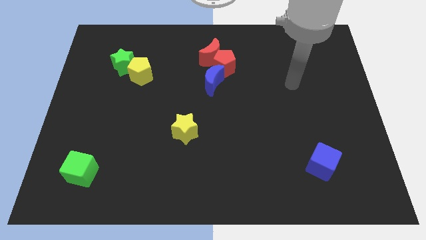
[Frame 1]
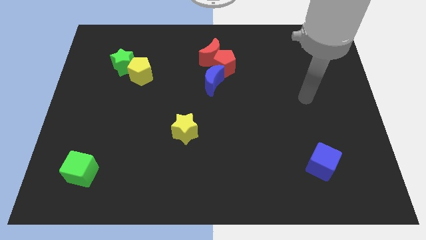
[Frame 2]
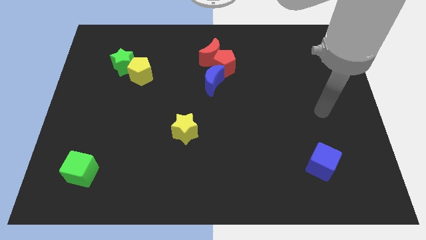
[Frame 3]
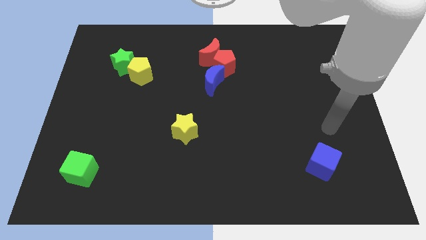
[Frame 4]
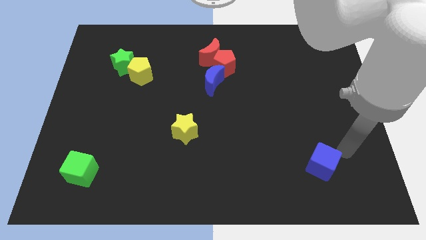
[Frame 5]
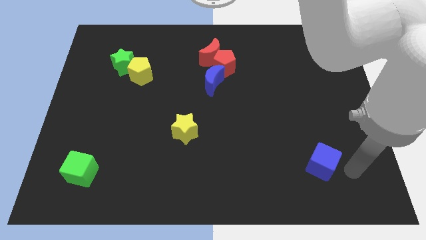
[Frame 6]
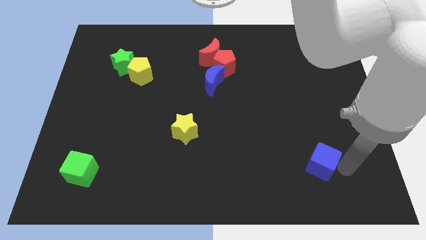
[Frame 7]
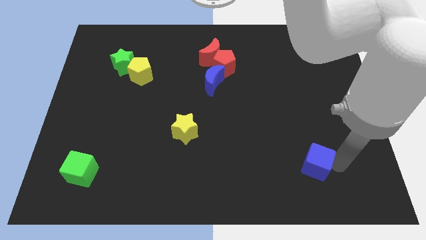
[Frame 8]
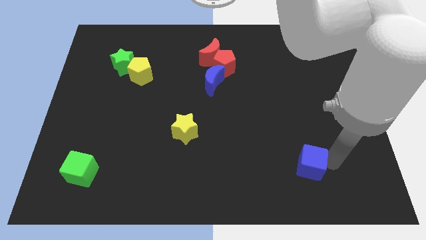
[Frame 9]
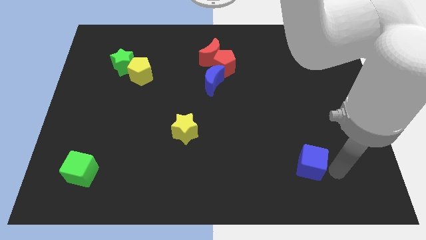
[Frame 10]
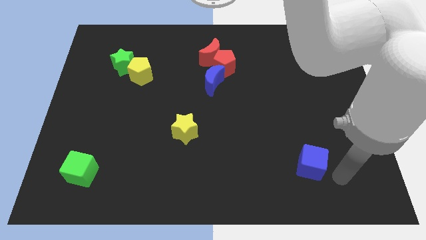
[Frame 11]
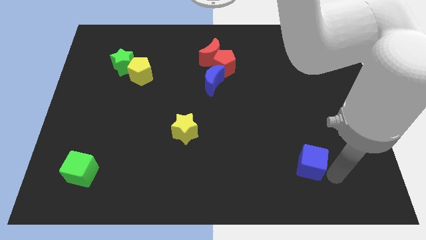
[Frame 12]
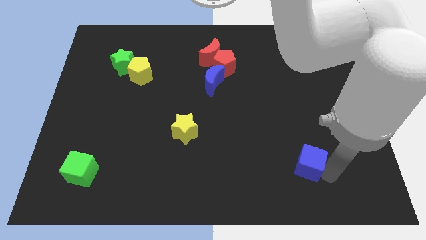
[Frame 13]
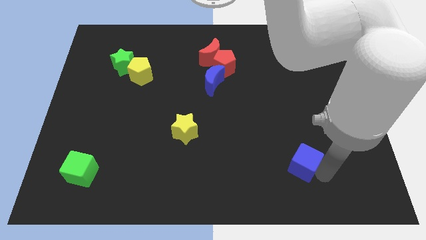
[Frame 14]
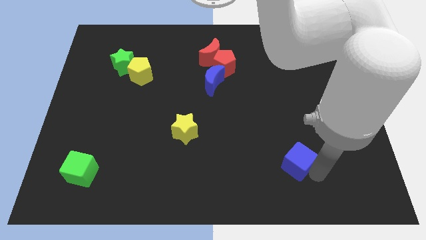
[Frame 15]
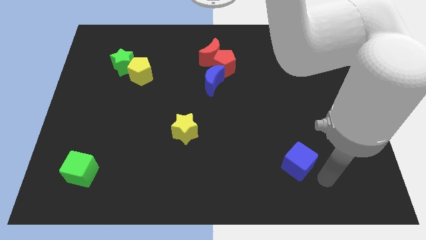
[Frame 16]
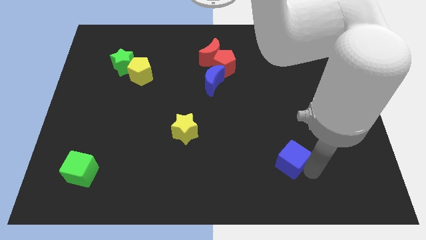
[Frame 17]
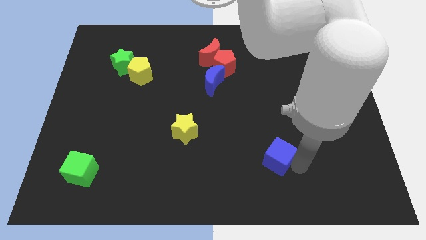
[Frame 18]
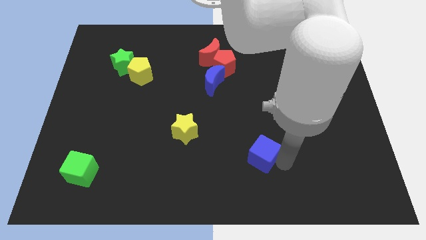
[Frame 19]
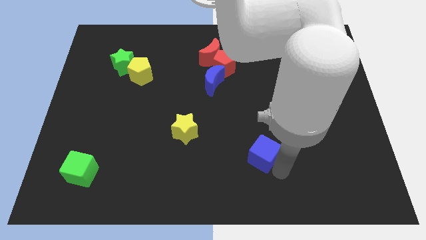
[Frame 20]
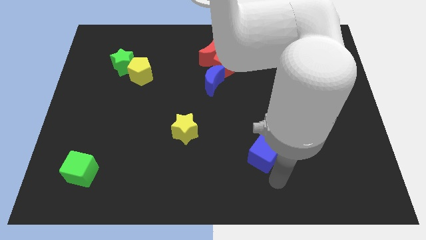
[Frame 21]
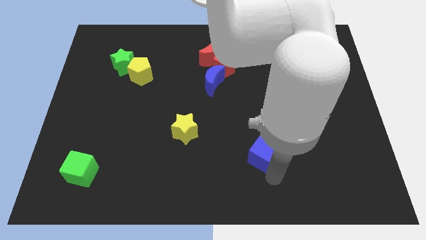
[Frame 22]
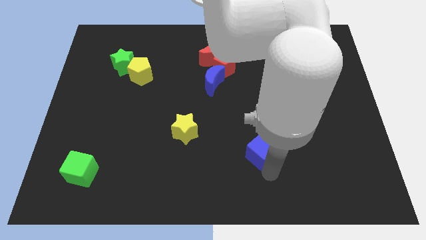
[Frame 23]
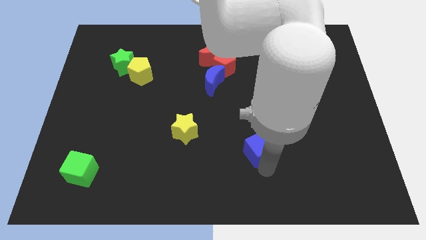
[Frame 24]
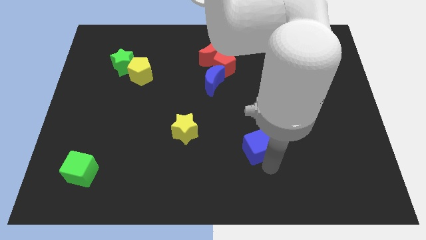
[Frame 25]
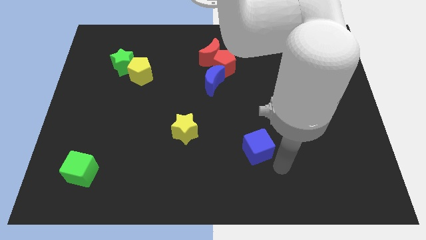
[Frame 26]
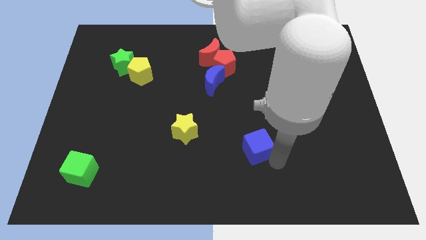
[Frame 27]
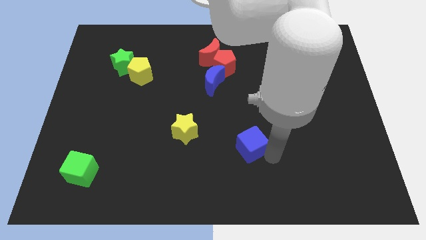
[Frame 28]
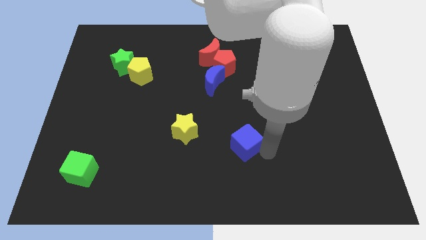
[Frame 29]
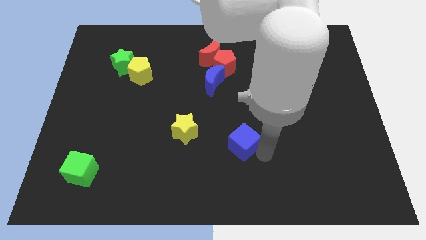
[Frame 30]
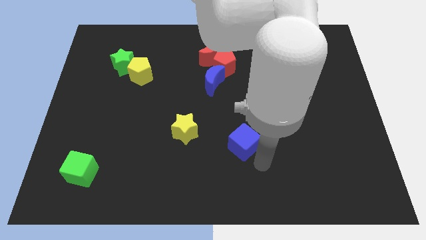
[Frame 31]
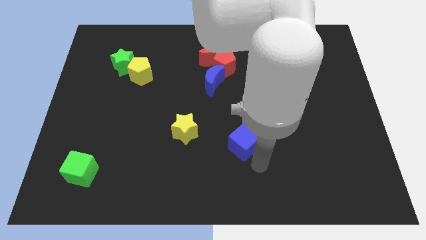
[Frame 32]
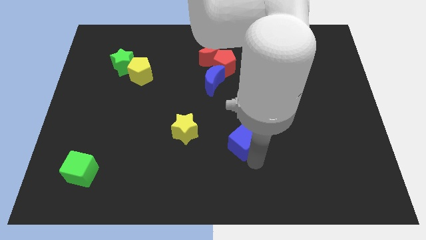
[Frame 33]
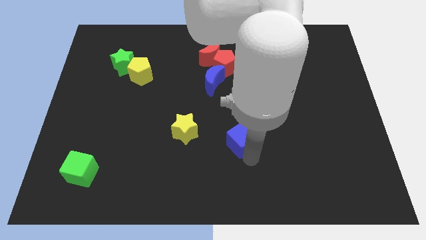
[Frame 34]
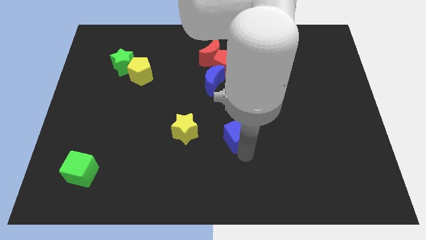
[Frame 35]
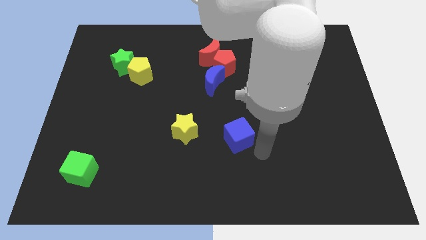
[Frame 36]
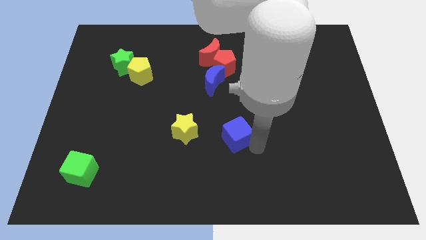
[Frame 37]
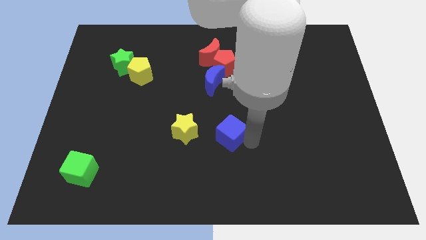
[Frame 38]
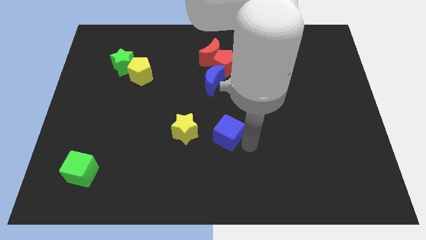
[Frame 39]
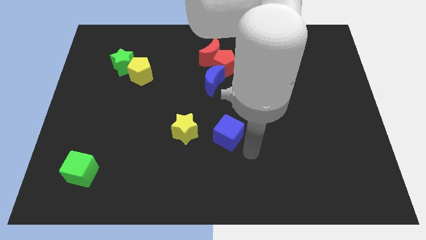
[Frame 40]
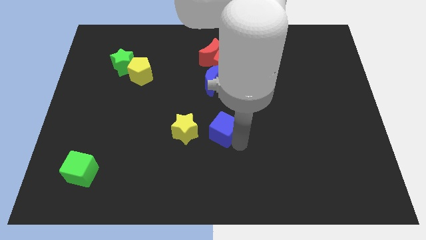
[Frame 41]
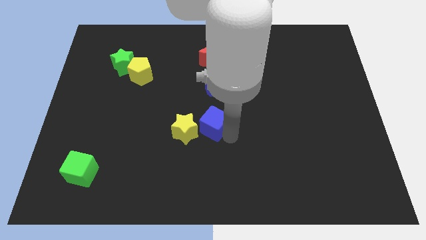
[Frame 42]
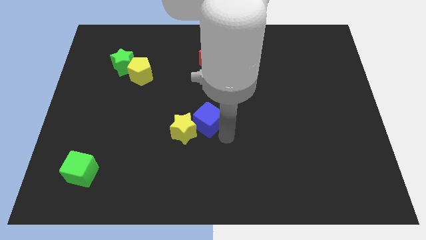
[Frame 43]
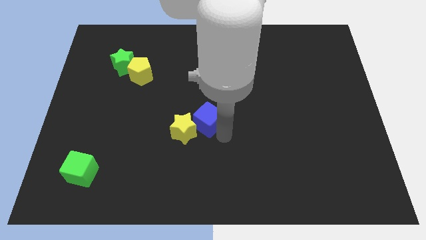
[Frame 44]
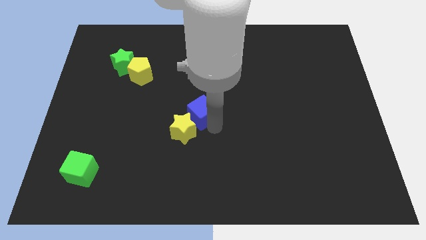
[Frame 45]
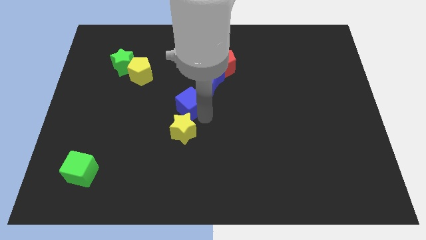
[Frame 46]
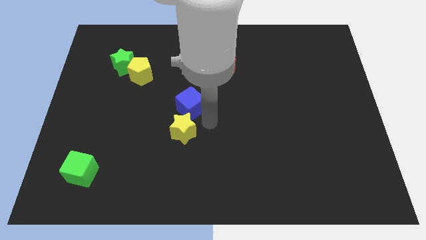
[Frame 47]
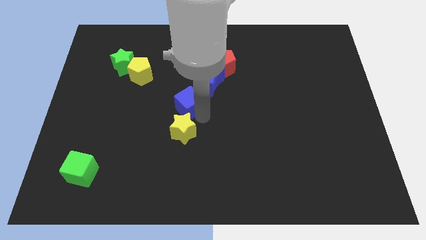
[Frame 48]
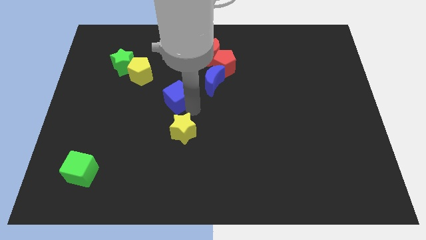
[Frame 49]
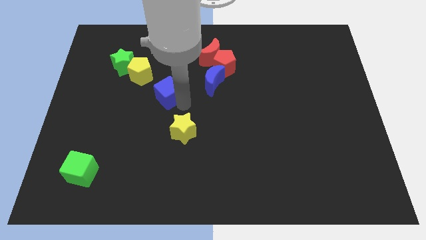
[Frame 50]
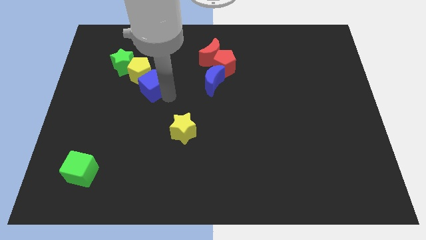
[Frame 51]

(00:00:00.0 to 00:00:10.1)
move the blue cube towards the yellow pentagon

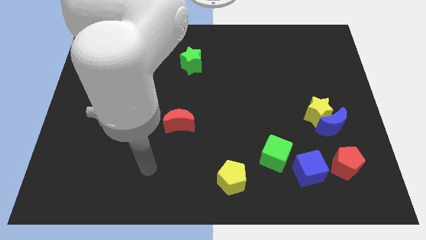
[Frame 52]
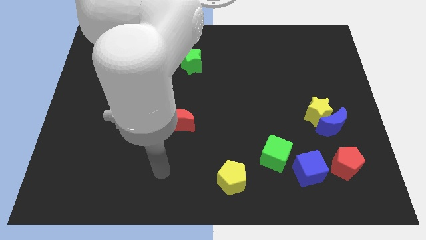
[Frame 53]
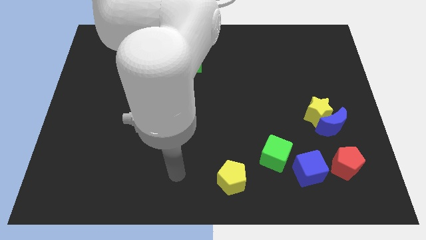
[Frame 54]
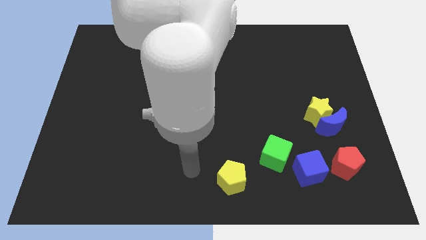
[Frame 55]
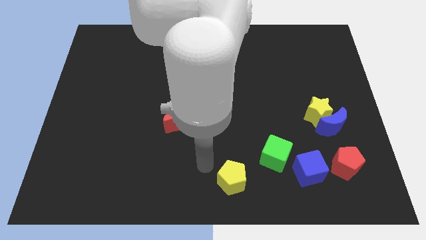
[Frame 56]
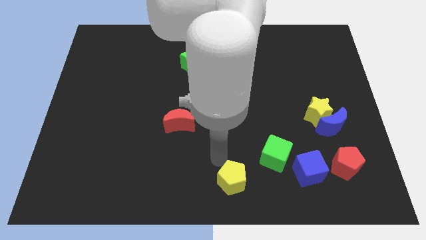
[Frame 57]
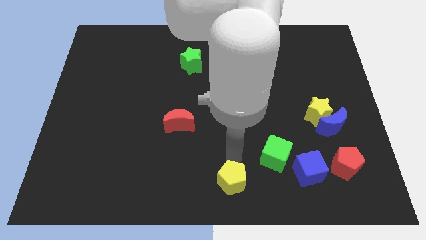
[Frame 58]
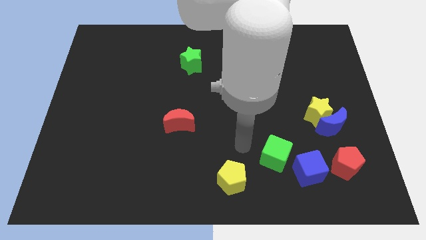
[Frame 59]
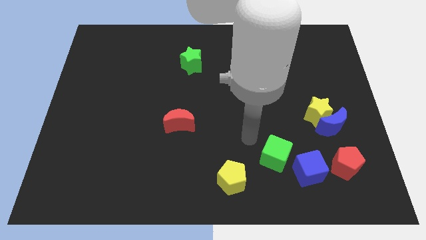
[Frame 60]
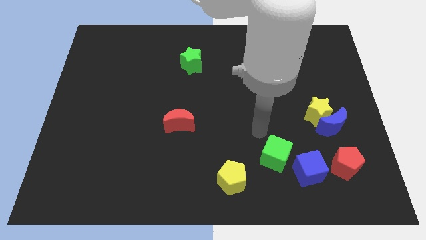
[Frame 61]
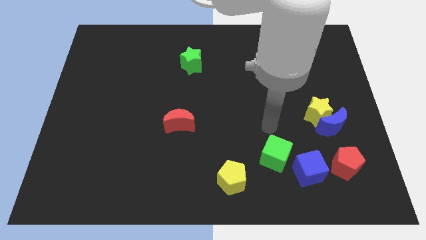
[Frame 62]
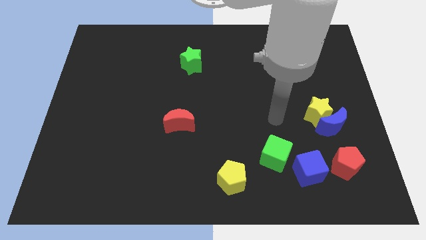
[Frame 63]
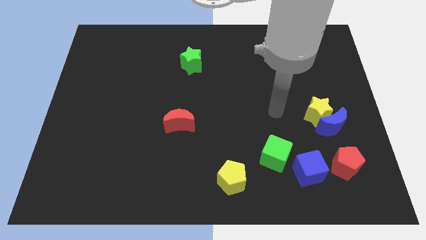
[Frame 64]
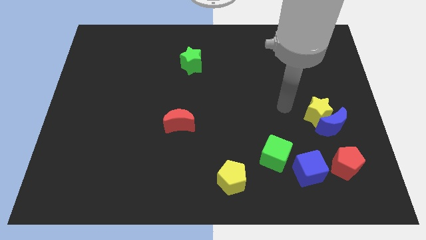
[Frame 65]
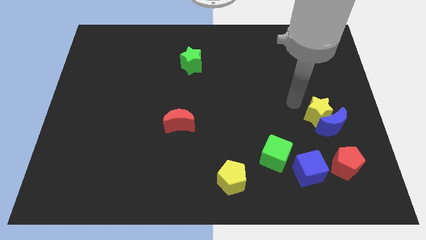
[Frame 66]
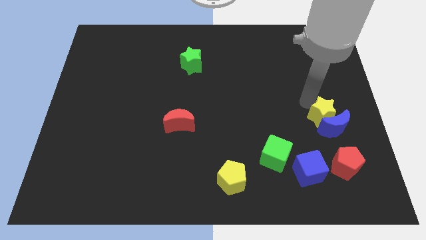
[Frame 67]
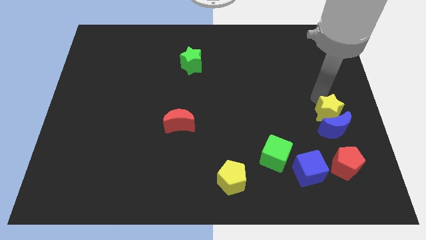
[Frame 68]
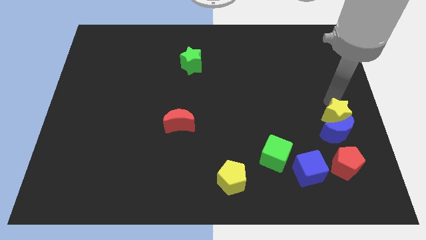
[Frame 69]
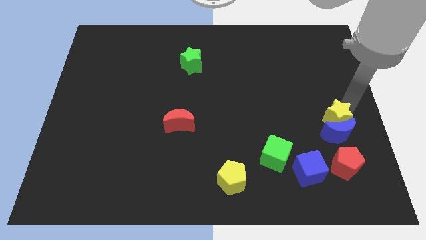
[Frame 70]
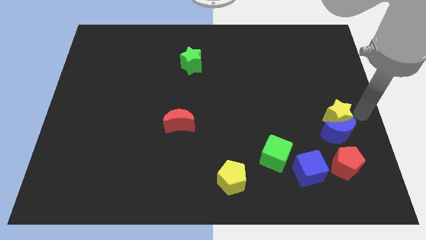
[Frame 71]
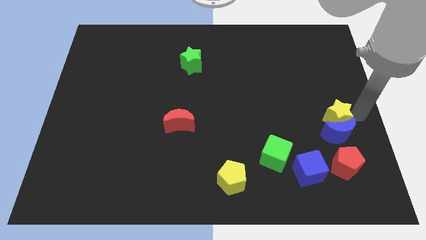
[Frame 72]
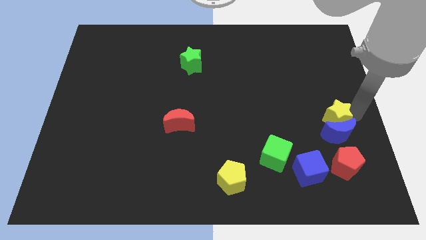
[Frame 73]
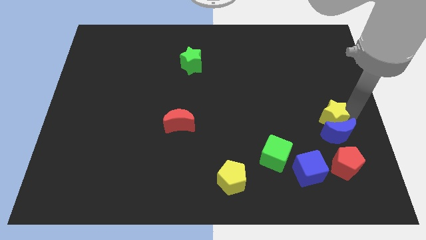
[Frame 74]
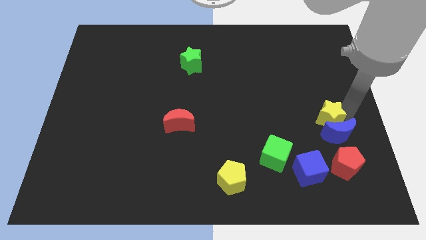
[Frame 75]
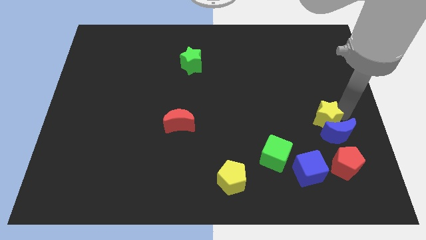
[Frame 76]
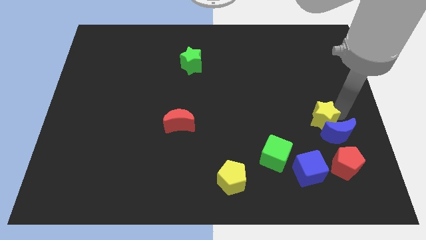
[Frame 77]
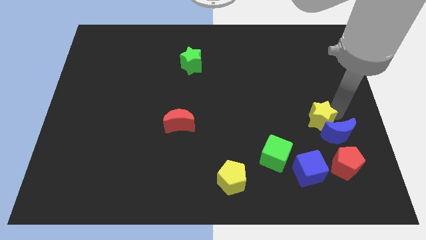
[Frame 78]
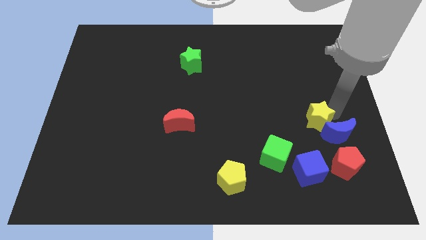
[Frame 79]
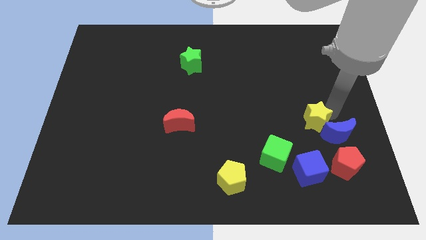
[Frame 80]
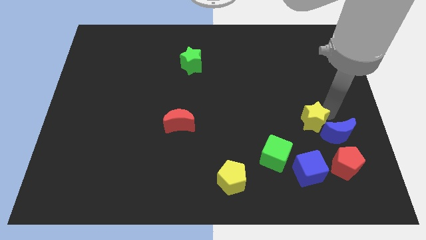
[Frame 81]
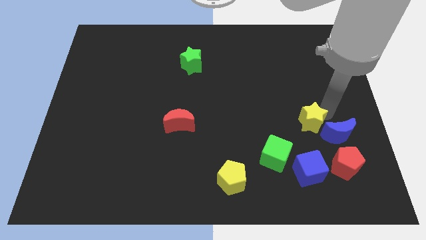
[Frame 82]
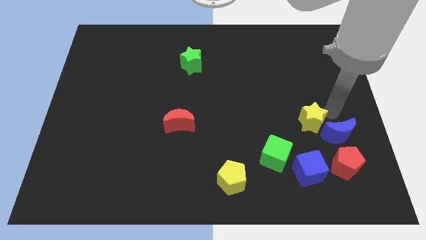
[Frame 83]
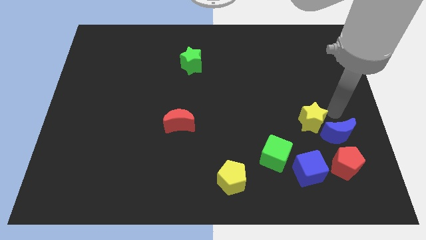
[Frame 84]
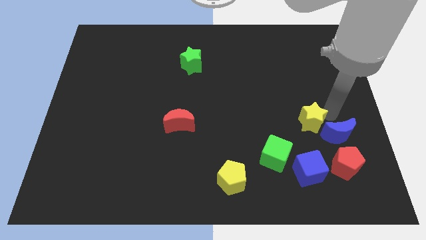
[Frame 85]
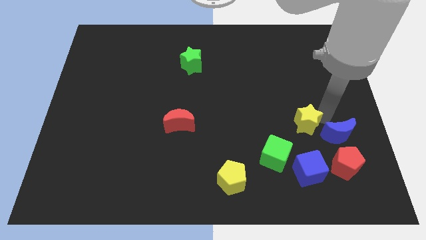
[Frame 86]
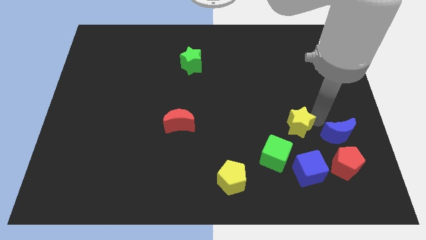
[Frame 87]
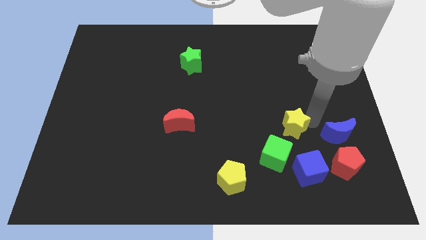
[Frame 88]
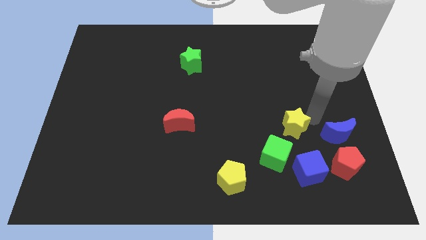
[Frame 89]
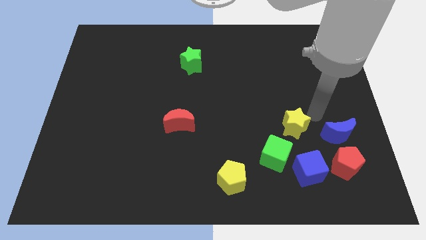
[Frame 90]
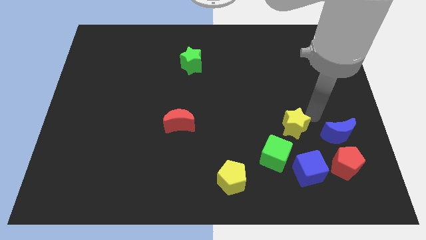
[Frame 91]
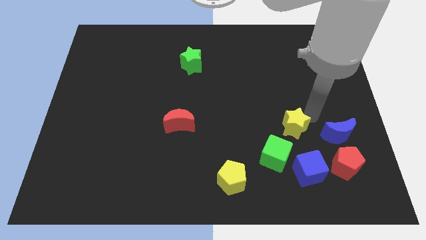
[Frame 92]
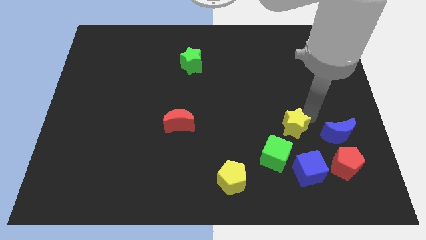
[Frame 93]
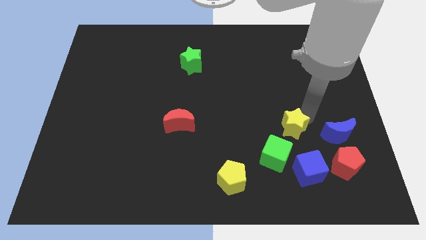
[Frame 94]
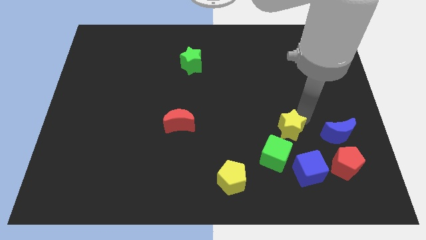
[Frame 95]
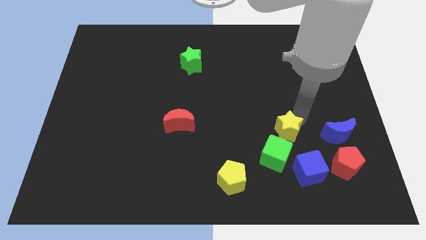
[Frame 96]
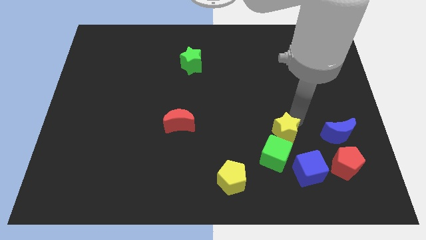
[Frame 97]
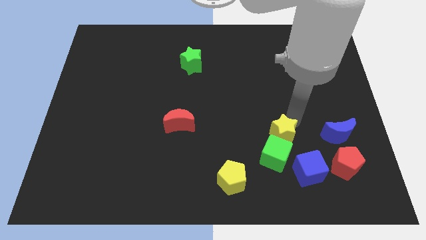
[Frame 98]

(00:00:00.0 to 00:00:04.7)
put the yellow star towards the green cube
